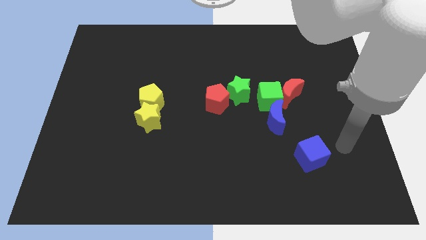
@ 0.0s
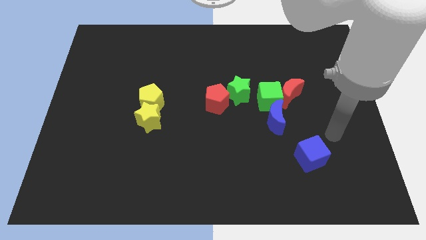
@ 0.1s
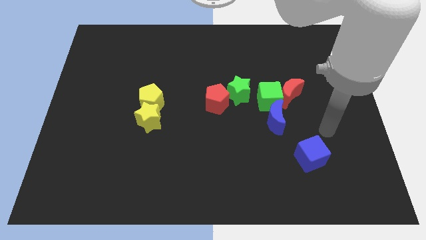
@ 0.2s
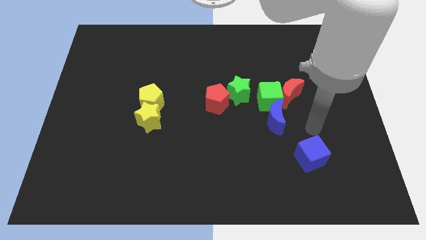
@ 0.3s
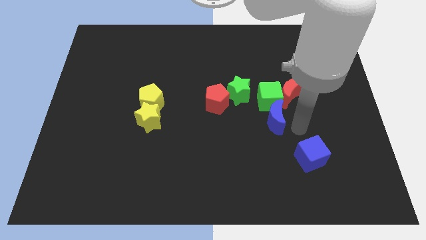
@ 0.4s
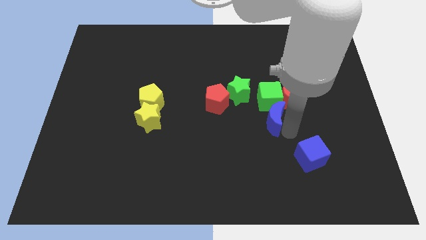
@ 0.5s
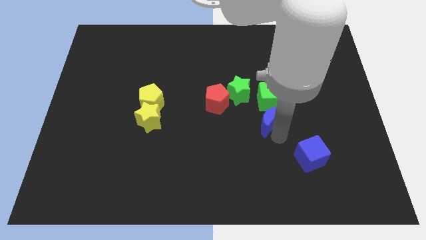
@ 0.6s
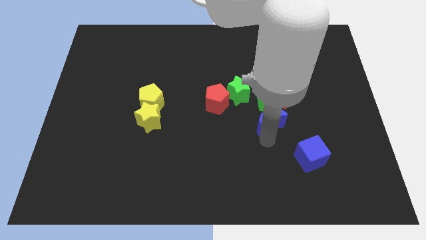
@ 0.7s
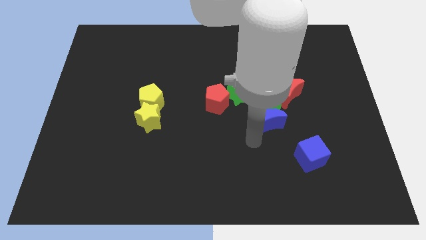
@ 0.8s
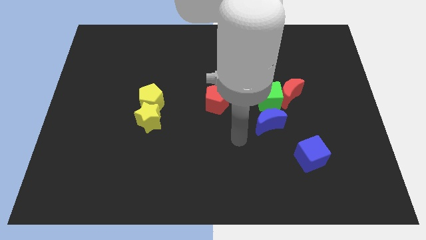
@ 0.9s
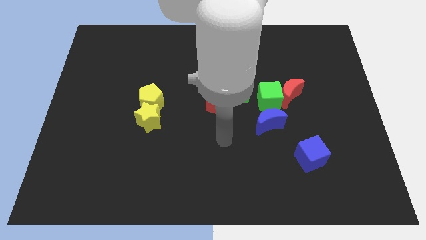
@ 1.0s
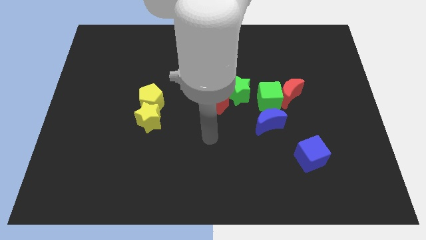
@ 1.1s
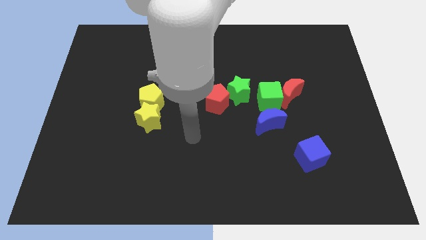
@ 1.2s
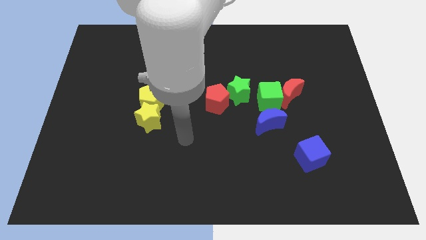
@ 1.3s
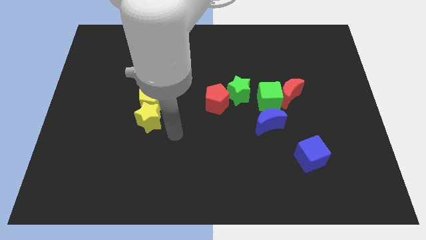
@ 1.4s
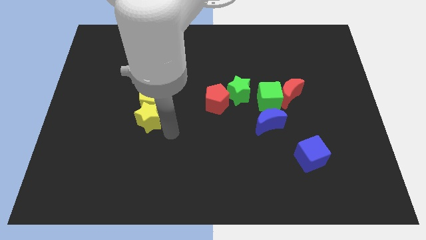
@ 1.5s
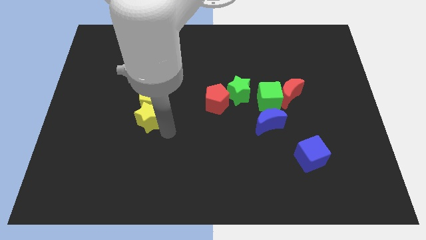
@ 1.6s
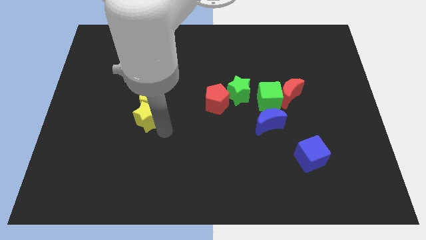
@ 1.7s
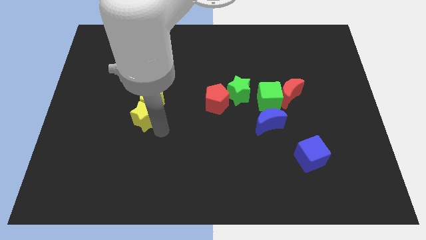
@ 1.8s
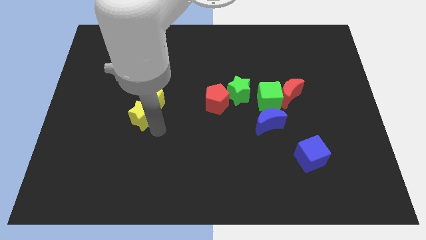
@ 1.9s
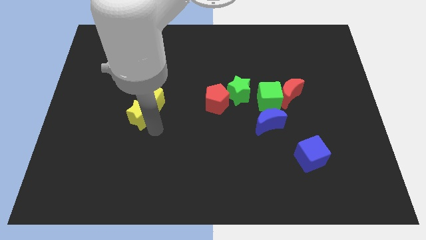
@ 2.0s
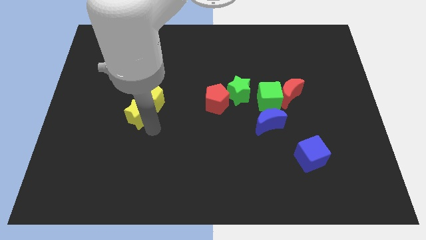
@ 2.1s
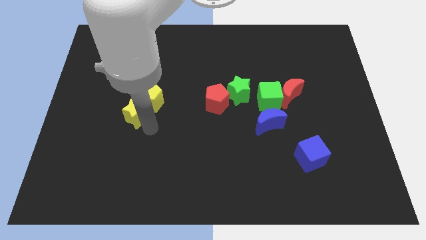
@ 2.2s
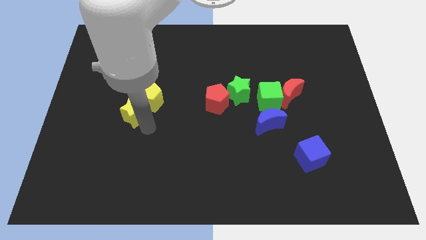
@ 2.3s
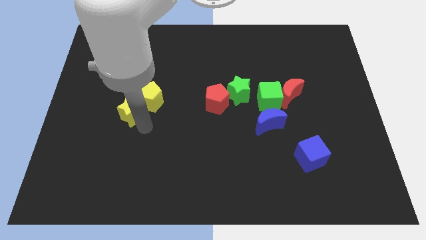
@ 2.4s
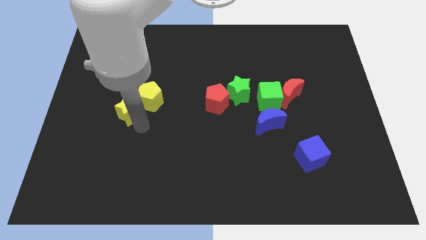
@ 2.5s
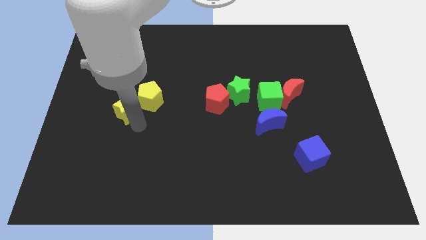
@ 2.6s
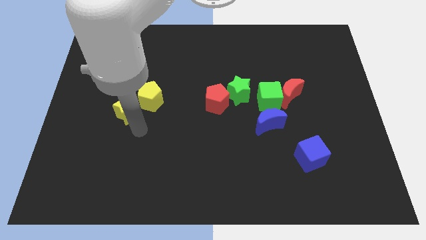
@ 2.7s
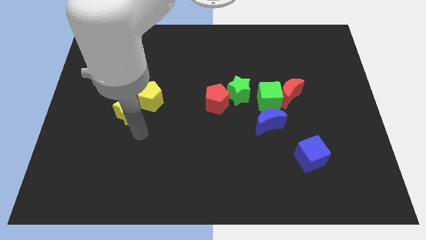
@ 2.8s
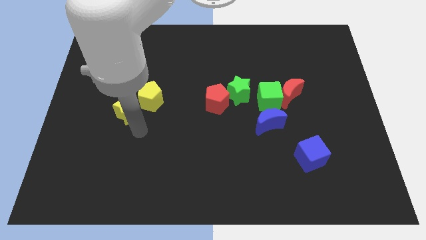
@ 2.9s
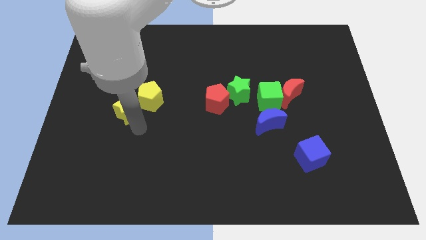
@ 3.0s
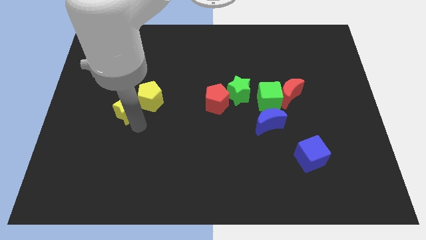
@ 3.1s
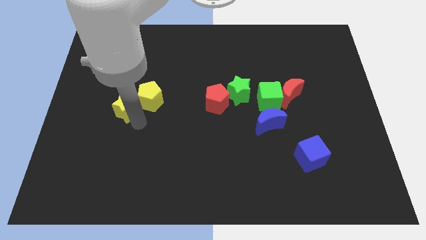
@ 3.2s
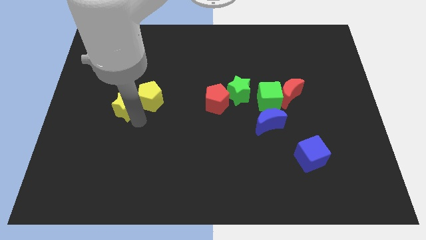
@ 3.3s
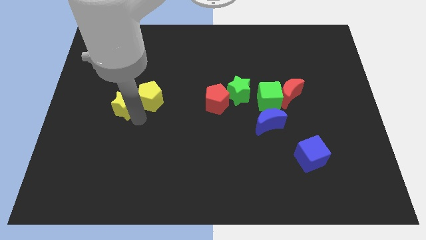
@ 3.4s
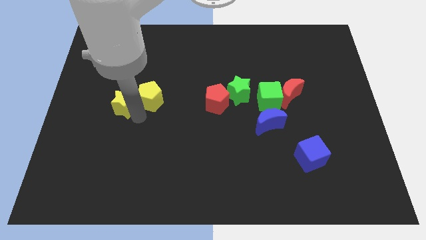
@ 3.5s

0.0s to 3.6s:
slide the yellow star a little diagonally up and to the left

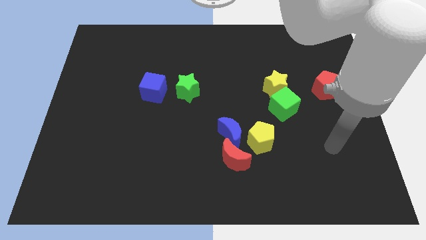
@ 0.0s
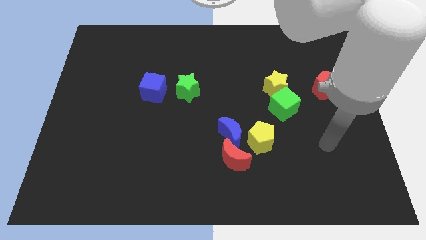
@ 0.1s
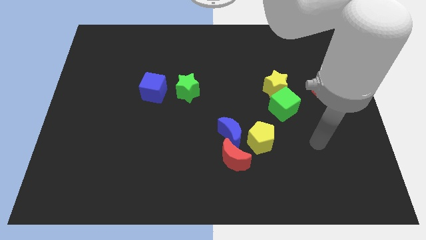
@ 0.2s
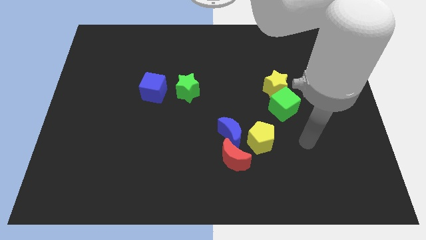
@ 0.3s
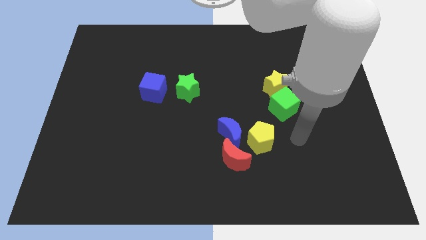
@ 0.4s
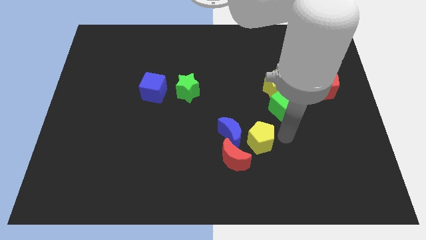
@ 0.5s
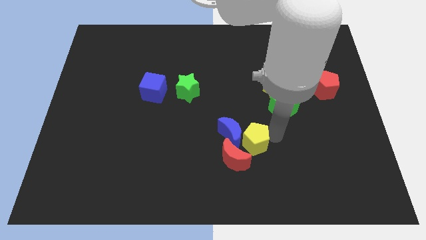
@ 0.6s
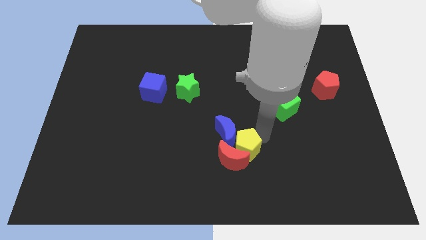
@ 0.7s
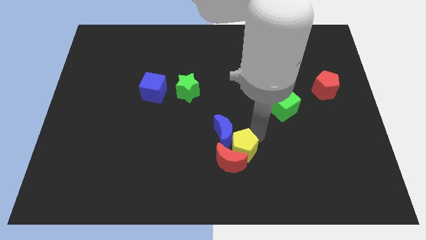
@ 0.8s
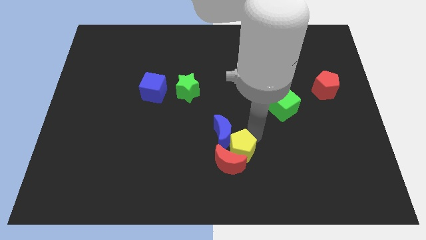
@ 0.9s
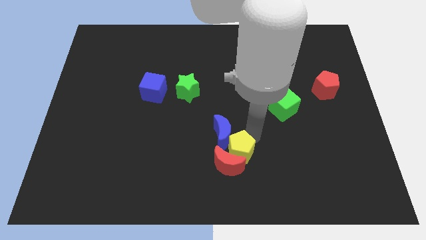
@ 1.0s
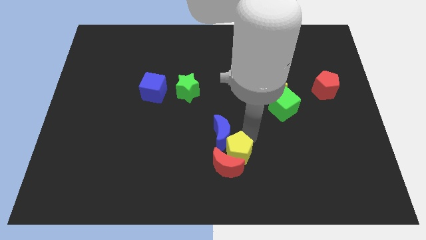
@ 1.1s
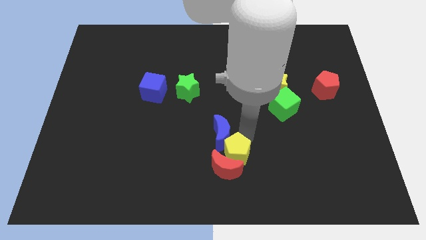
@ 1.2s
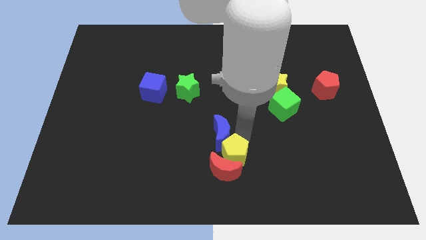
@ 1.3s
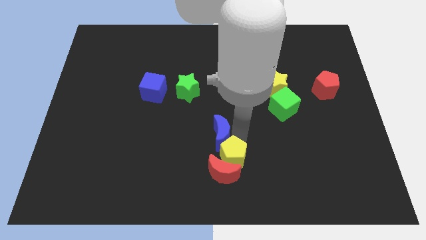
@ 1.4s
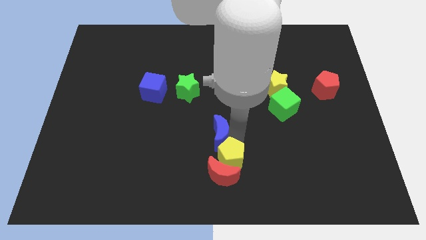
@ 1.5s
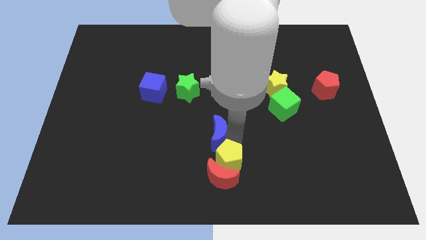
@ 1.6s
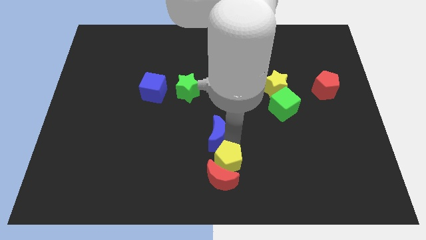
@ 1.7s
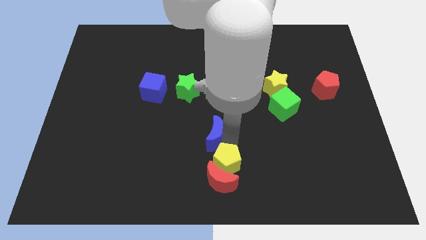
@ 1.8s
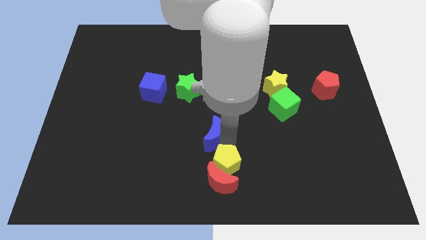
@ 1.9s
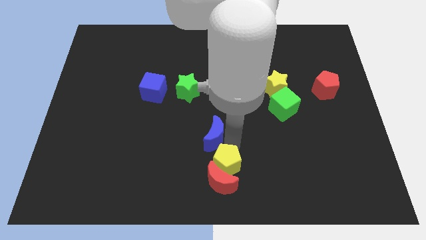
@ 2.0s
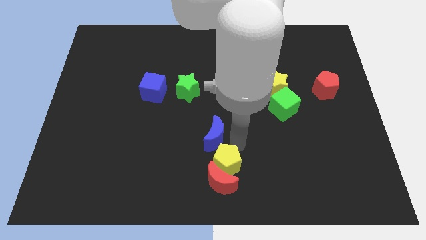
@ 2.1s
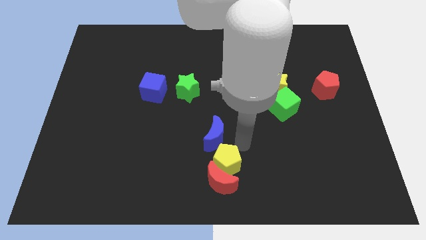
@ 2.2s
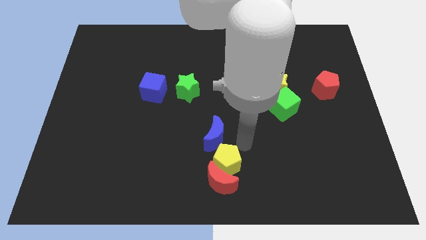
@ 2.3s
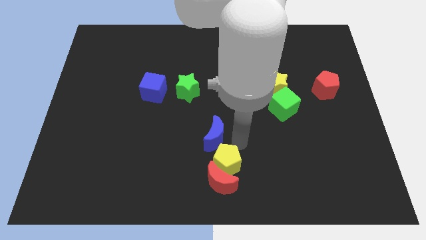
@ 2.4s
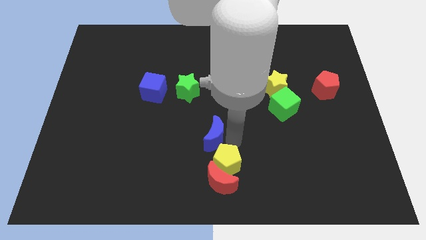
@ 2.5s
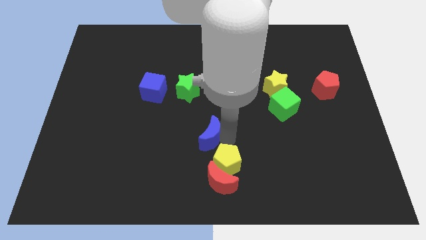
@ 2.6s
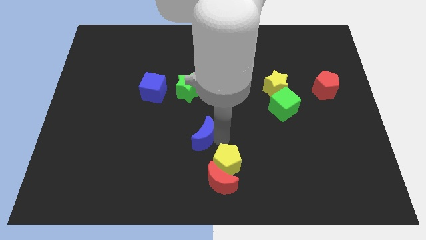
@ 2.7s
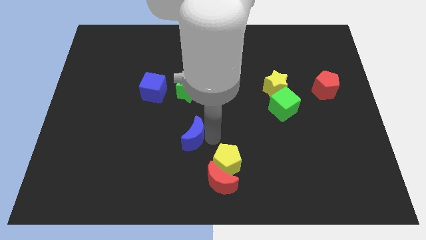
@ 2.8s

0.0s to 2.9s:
slide the blue moon to the left slightly

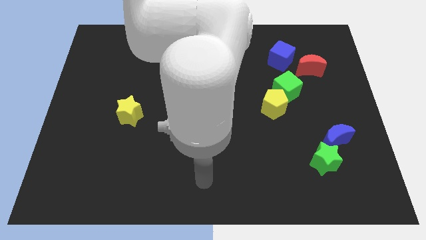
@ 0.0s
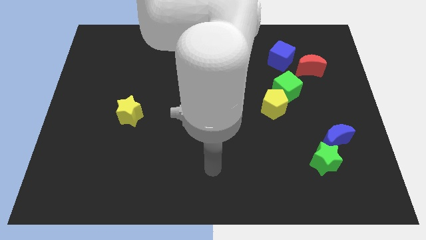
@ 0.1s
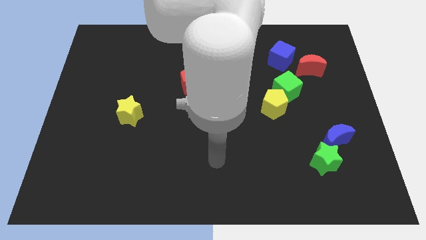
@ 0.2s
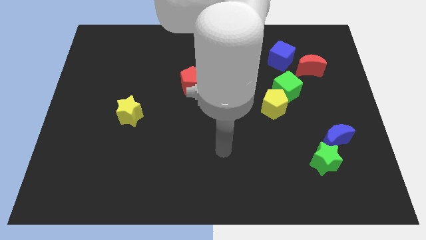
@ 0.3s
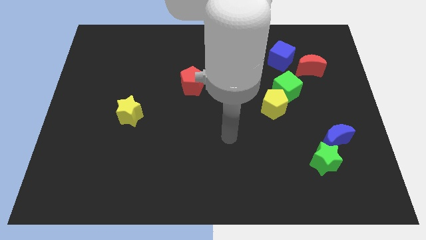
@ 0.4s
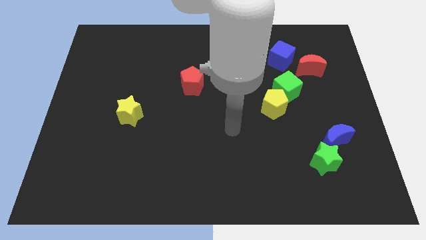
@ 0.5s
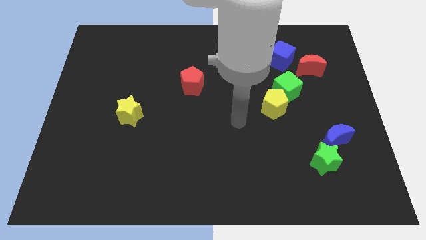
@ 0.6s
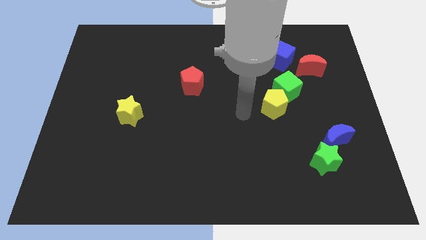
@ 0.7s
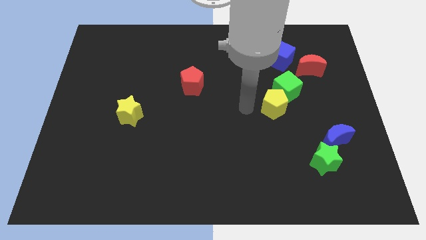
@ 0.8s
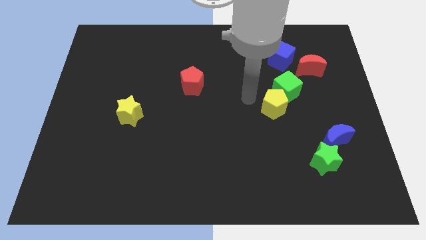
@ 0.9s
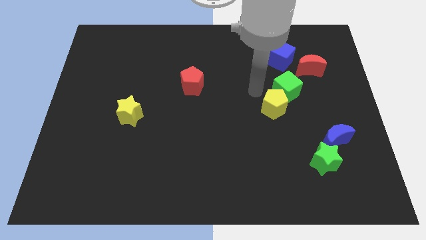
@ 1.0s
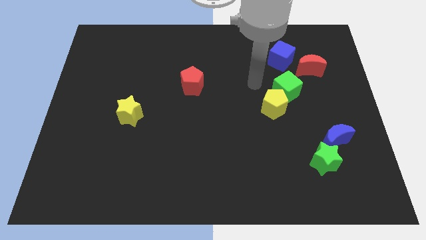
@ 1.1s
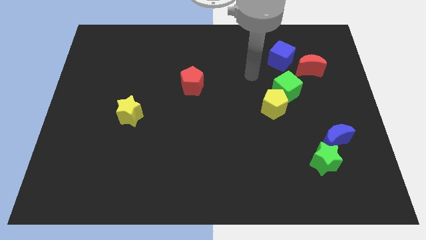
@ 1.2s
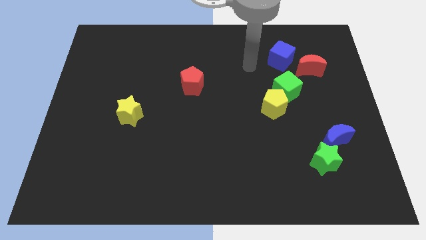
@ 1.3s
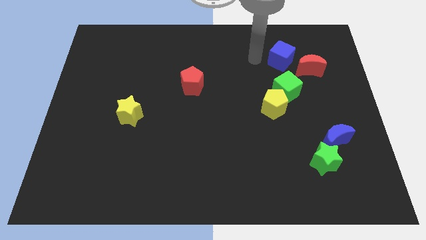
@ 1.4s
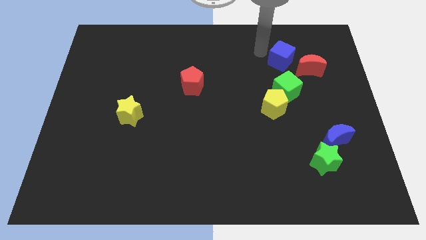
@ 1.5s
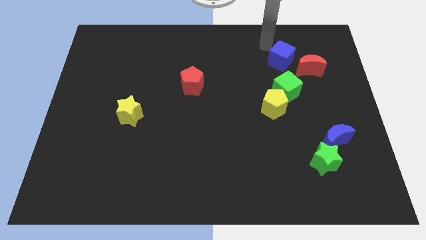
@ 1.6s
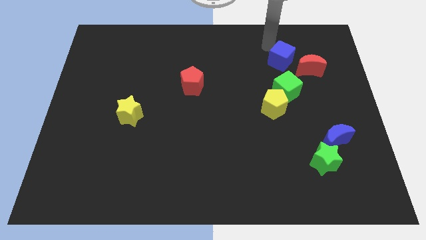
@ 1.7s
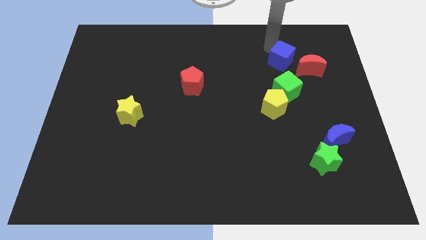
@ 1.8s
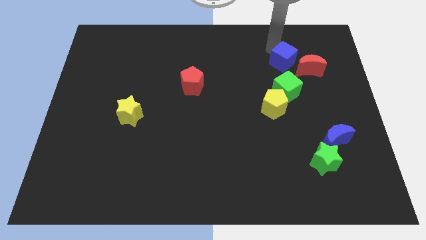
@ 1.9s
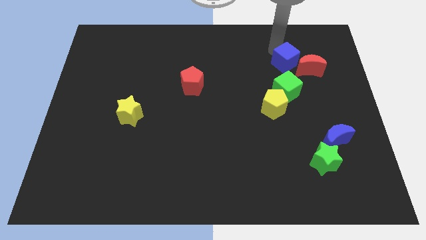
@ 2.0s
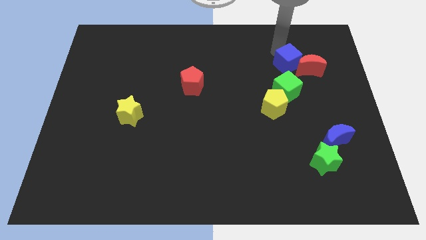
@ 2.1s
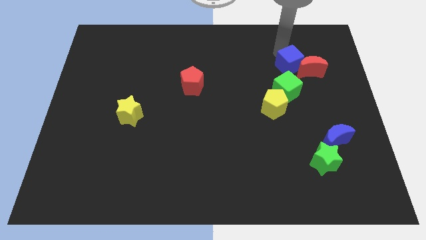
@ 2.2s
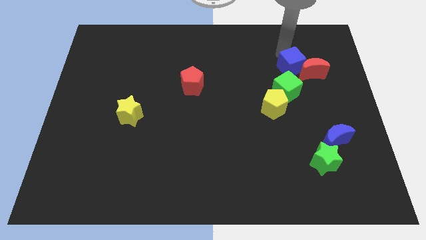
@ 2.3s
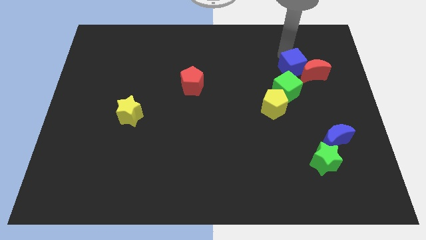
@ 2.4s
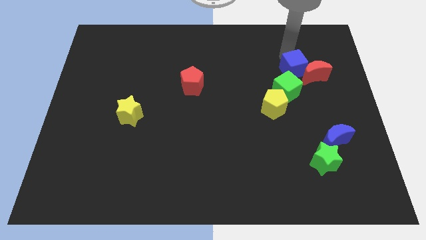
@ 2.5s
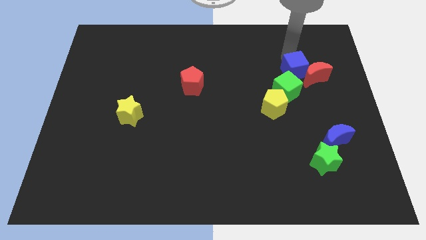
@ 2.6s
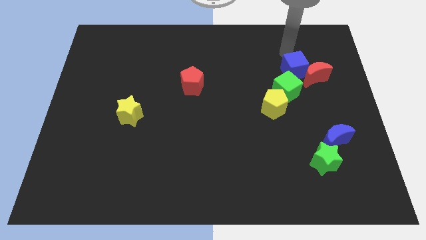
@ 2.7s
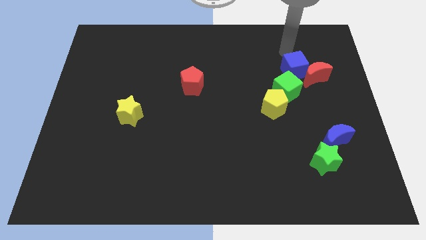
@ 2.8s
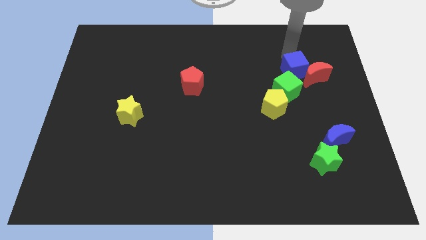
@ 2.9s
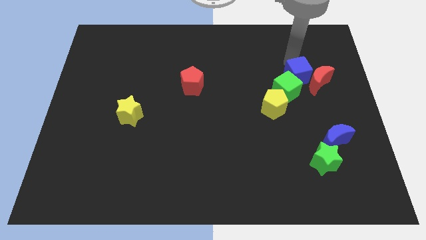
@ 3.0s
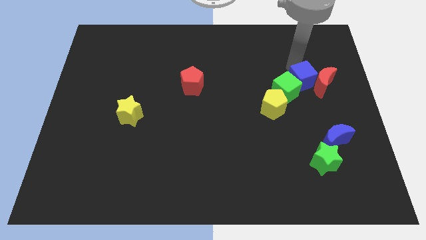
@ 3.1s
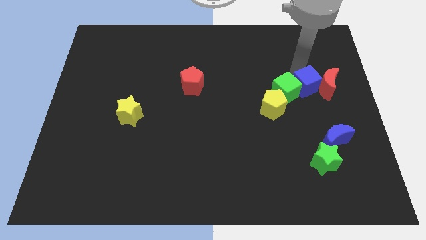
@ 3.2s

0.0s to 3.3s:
move the blue cube downwards a bit
